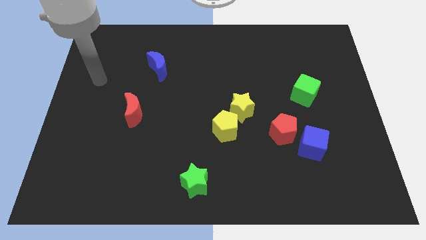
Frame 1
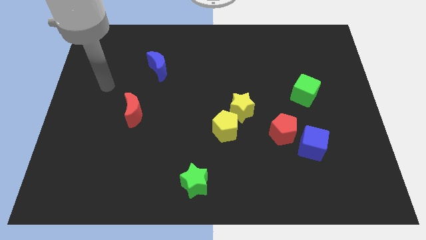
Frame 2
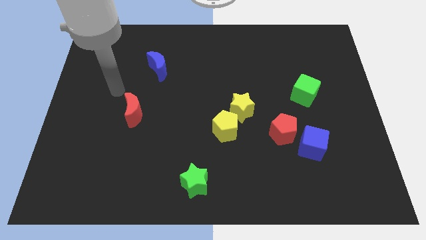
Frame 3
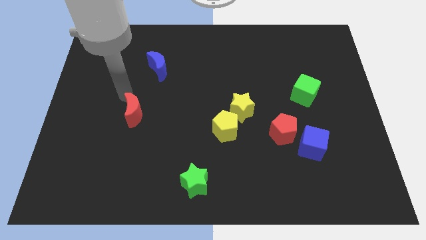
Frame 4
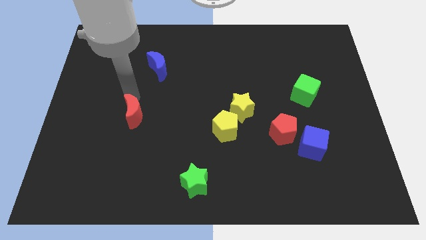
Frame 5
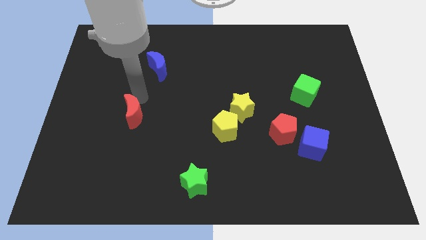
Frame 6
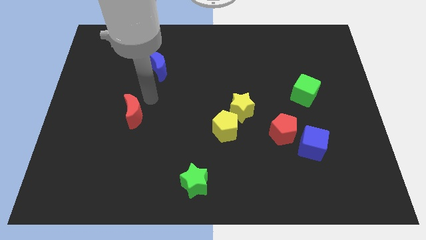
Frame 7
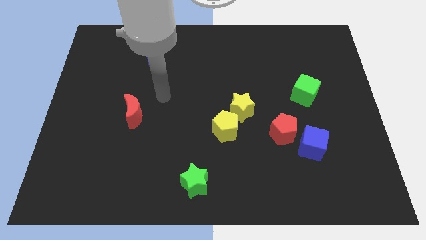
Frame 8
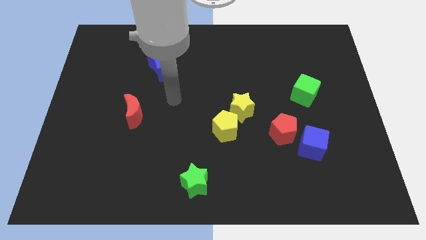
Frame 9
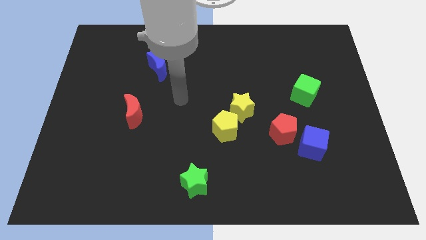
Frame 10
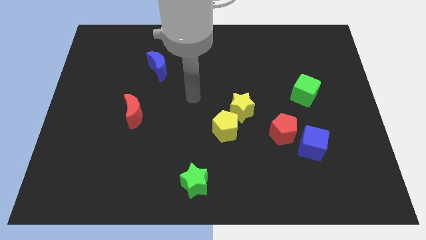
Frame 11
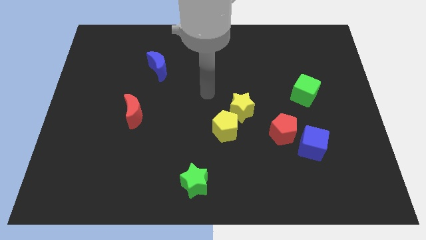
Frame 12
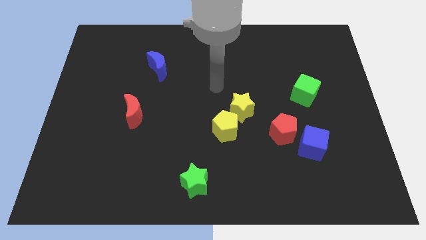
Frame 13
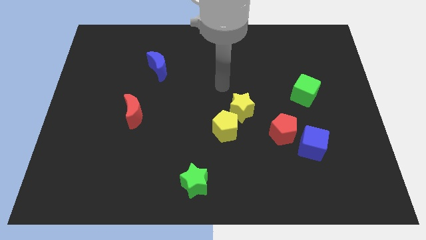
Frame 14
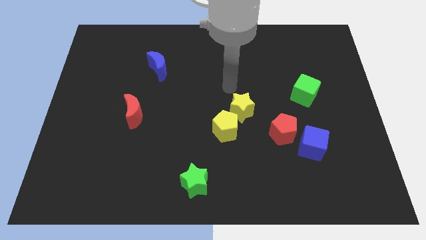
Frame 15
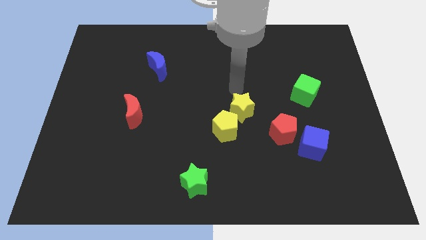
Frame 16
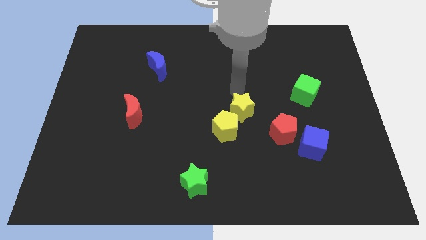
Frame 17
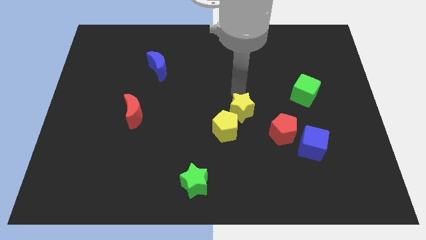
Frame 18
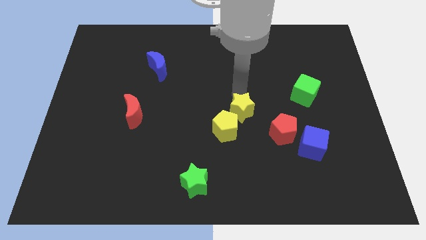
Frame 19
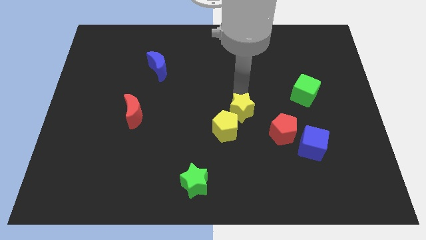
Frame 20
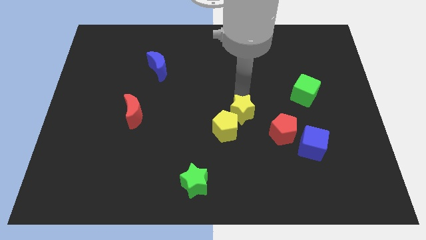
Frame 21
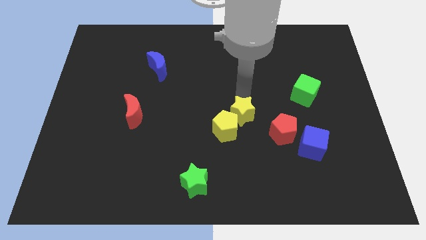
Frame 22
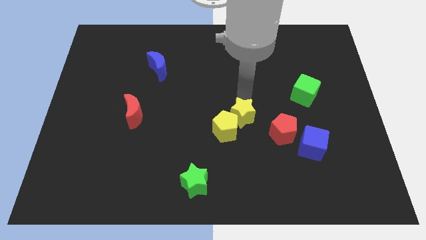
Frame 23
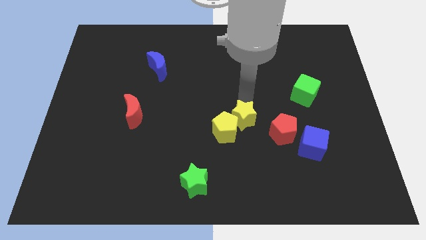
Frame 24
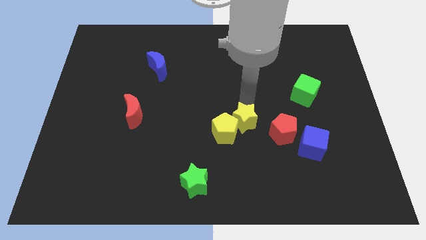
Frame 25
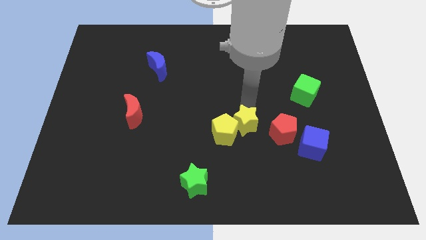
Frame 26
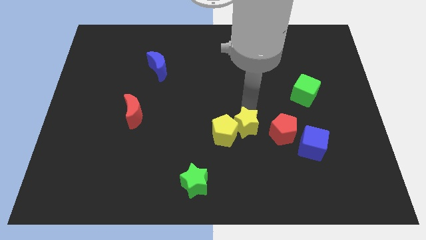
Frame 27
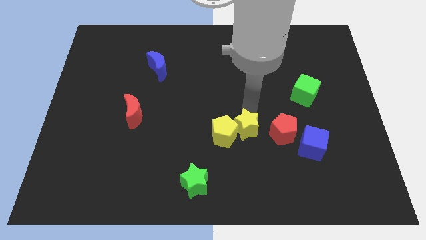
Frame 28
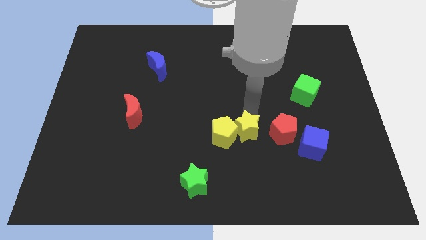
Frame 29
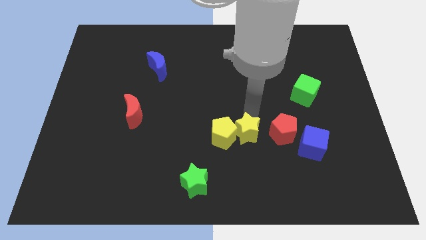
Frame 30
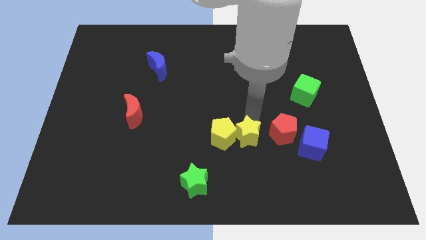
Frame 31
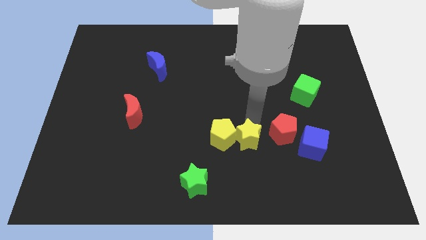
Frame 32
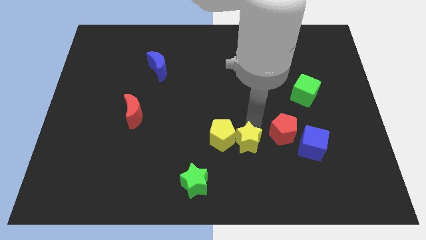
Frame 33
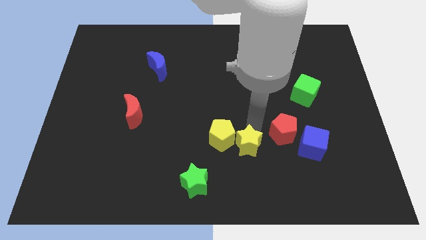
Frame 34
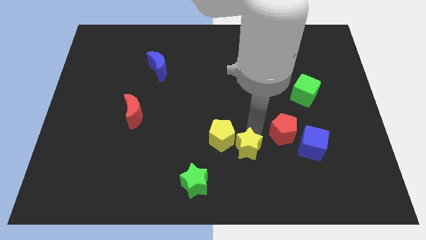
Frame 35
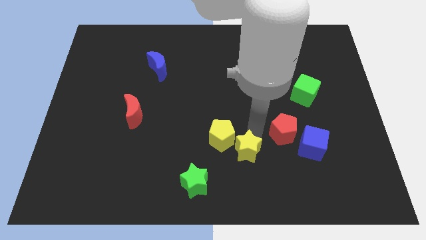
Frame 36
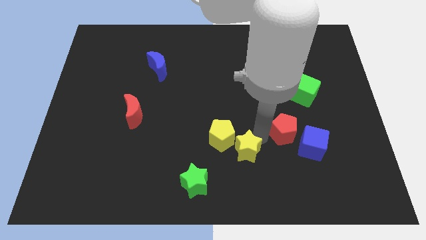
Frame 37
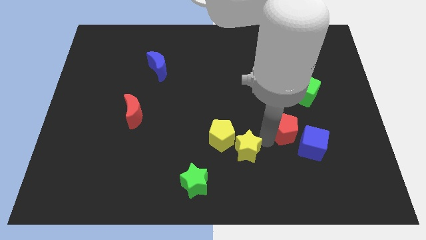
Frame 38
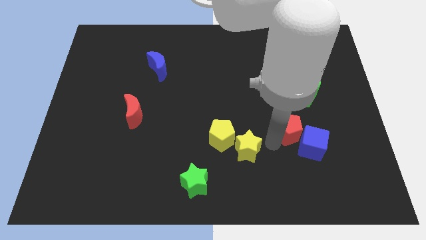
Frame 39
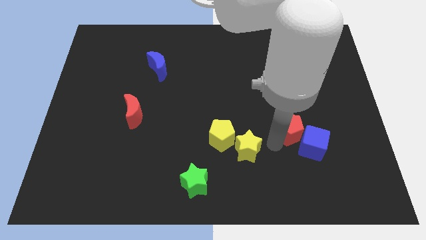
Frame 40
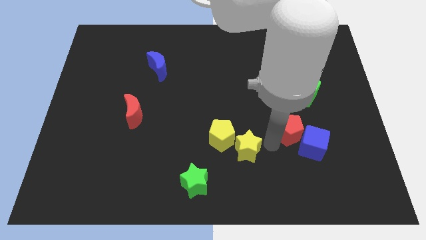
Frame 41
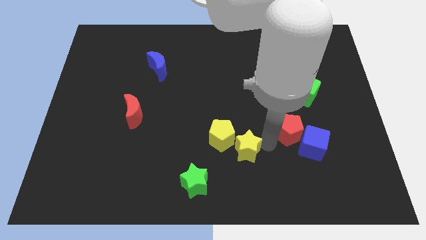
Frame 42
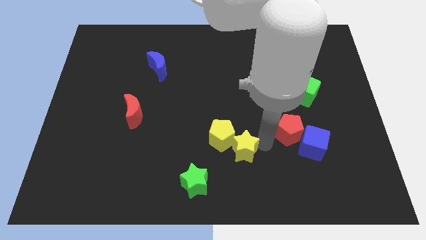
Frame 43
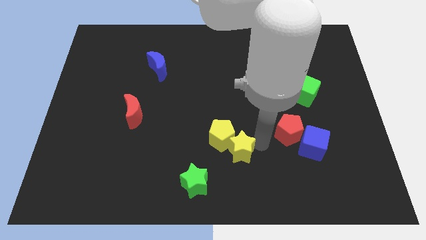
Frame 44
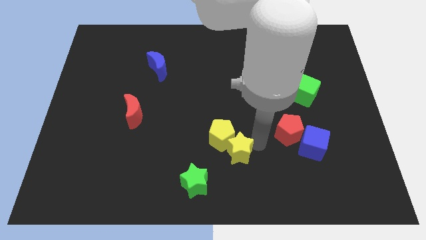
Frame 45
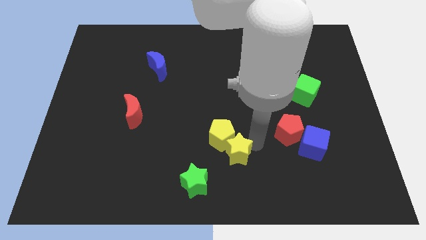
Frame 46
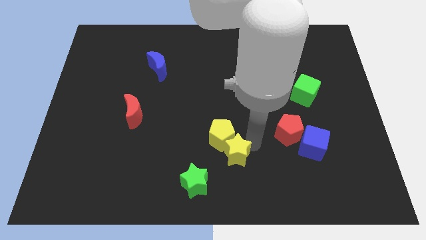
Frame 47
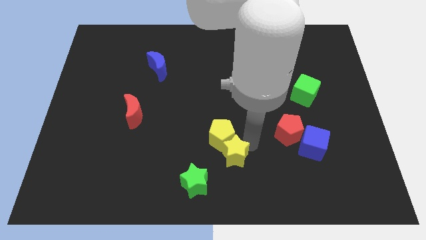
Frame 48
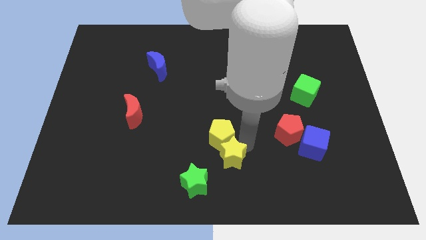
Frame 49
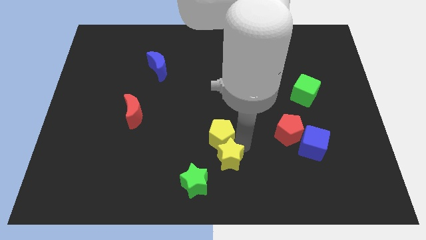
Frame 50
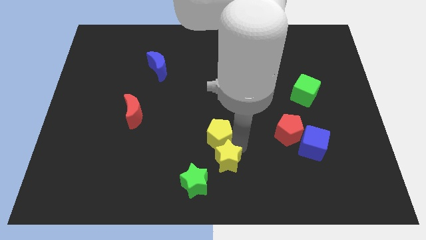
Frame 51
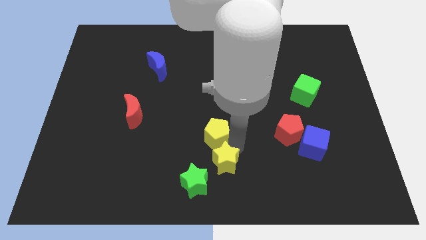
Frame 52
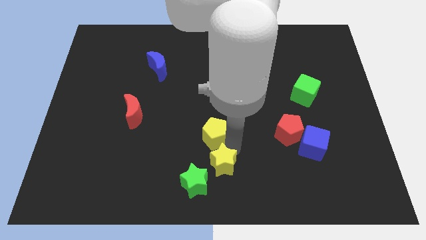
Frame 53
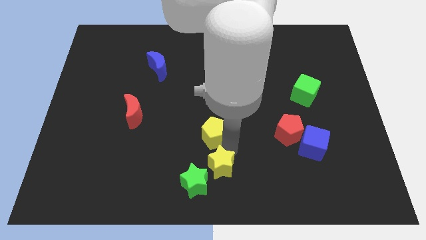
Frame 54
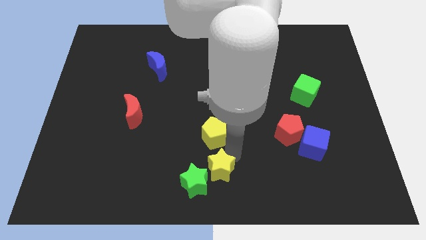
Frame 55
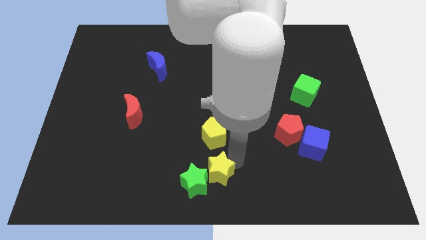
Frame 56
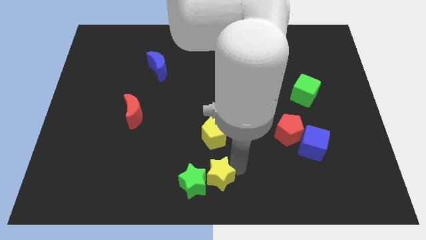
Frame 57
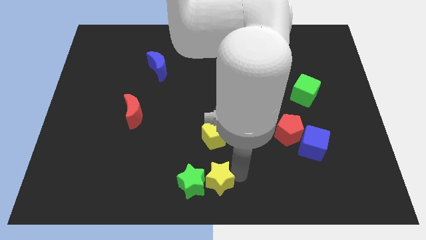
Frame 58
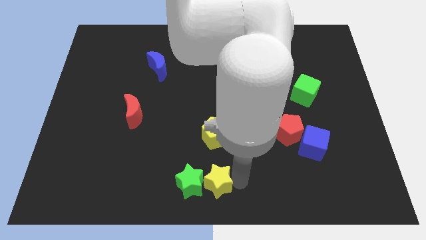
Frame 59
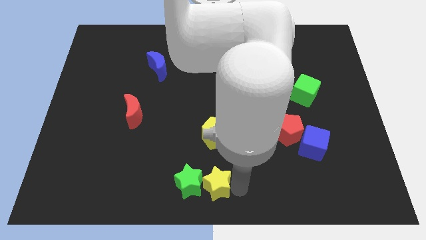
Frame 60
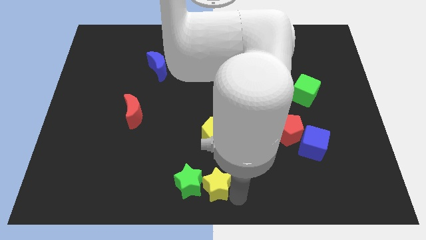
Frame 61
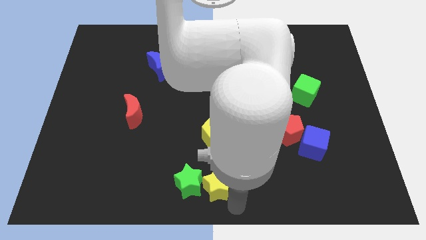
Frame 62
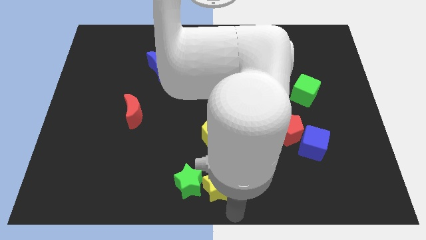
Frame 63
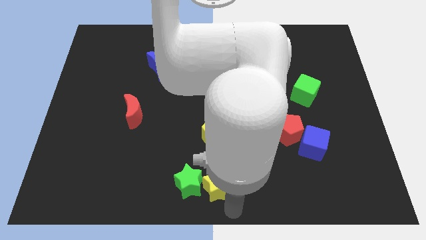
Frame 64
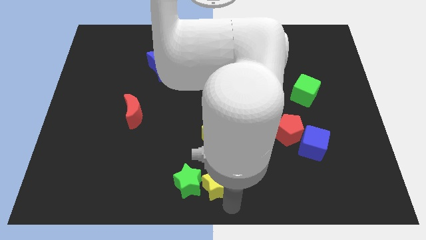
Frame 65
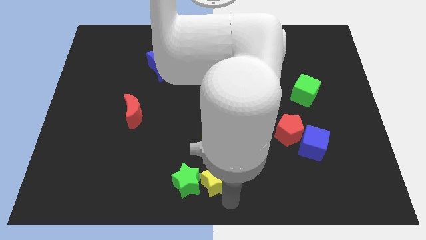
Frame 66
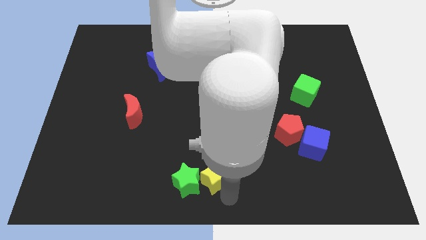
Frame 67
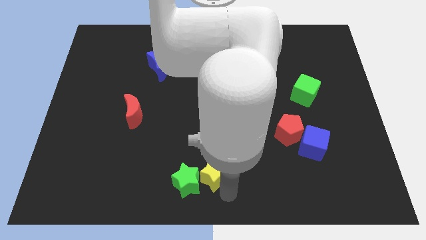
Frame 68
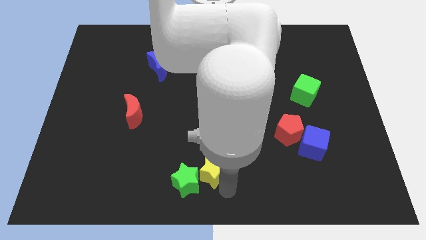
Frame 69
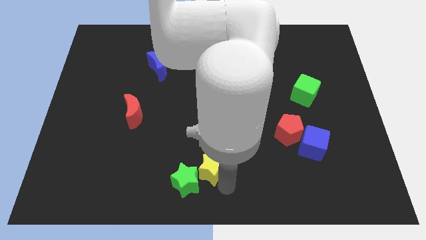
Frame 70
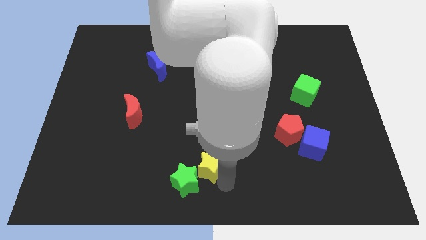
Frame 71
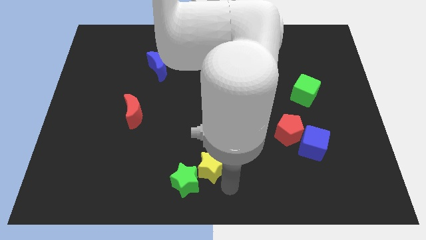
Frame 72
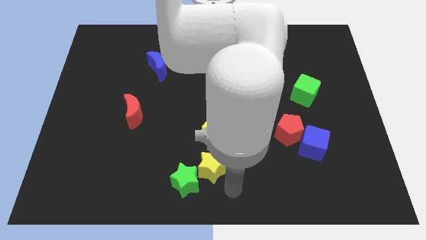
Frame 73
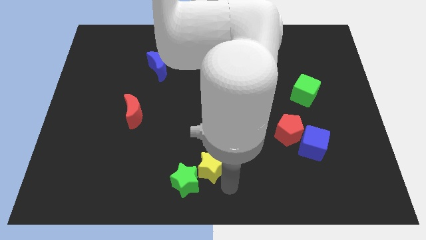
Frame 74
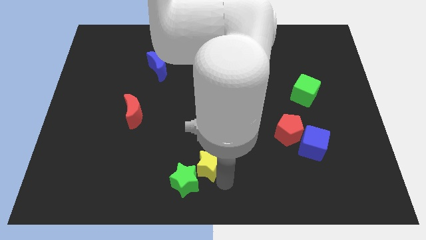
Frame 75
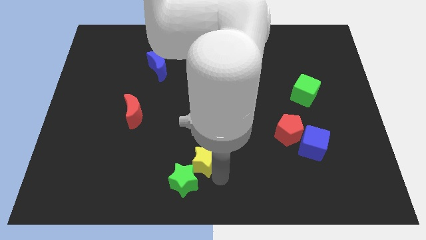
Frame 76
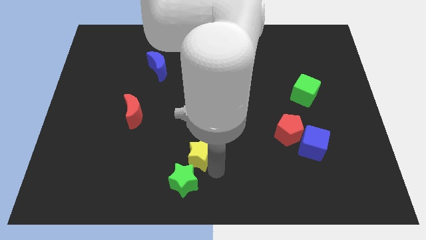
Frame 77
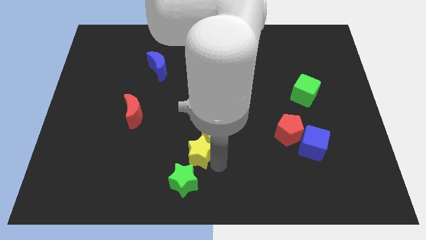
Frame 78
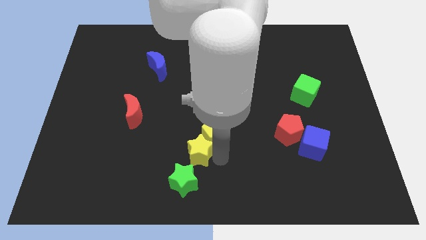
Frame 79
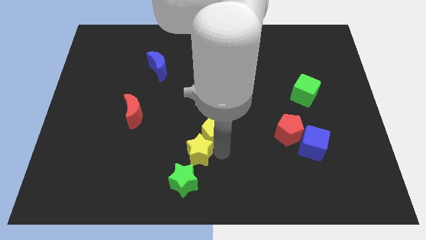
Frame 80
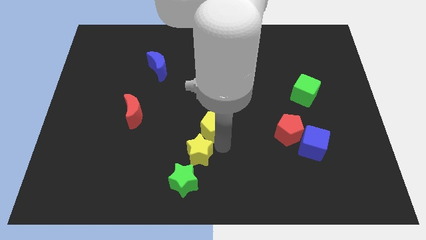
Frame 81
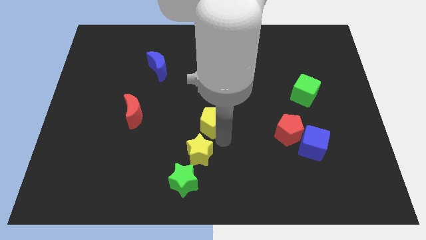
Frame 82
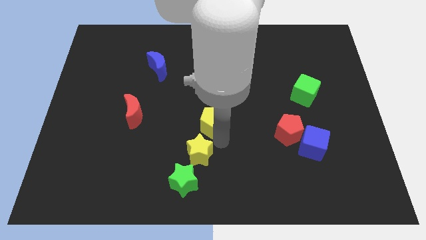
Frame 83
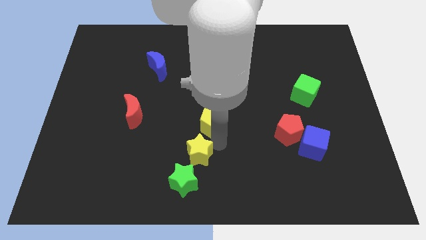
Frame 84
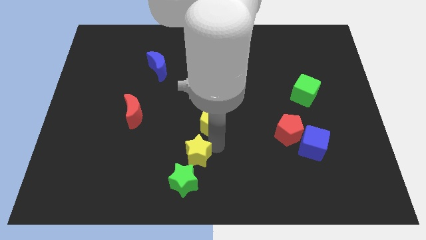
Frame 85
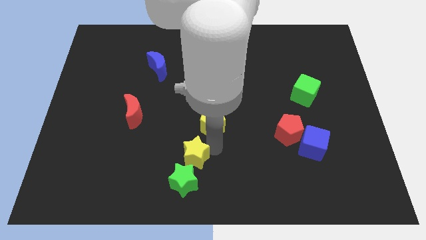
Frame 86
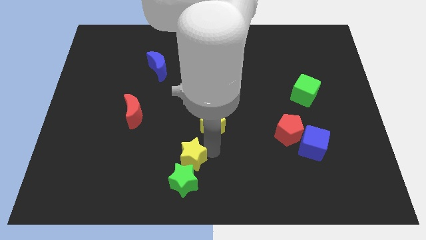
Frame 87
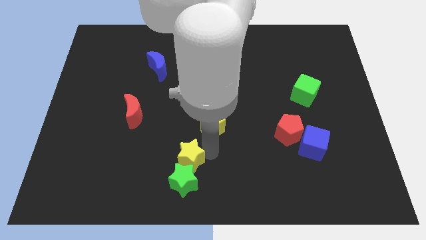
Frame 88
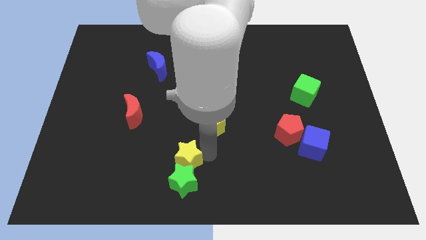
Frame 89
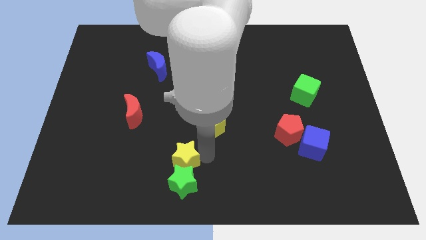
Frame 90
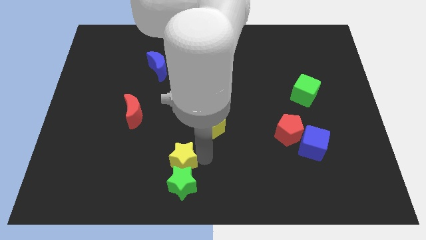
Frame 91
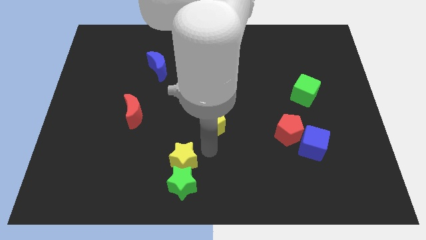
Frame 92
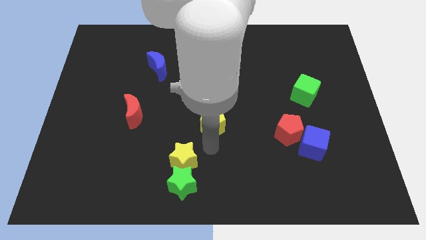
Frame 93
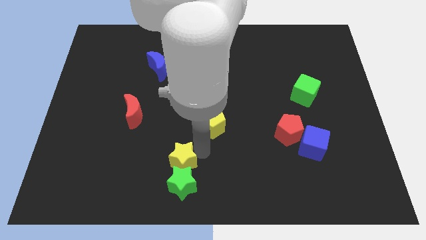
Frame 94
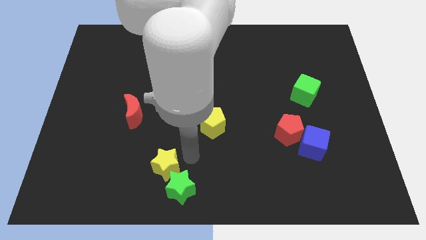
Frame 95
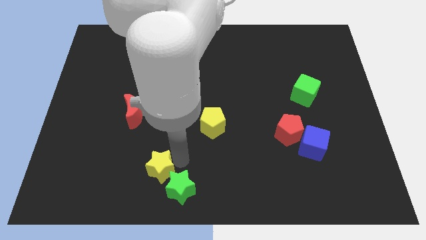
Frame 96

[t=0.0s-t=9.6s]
slide the yellow star to the left side of the green star
